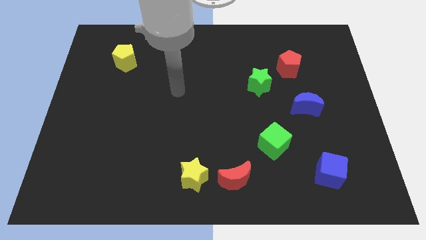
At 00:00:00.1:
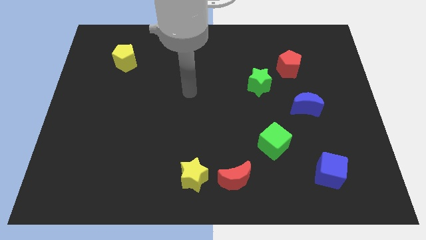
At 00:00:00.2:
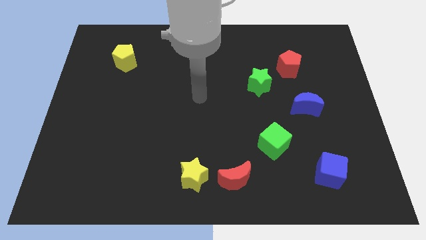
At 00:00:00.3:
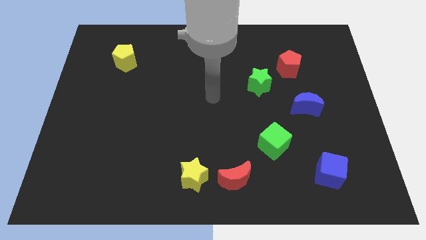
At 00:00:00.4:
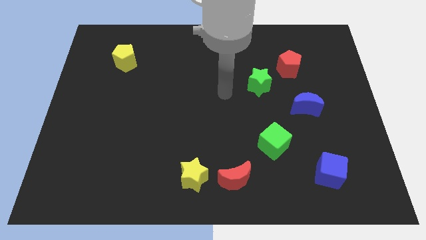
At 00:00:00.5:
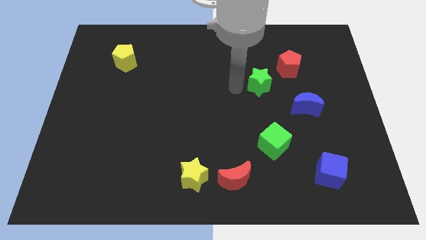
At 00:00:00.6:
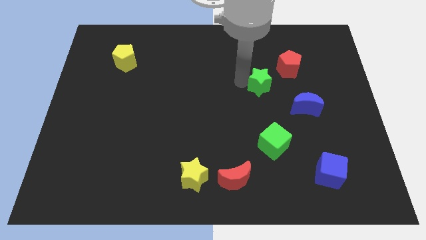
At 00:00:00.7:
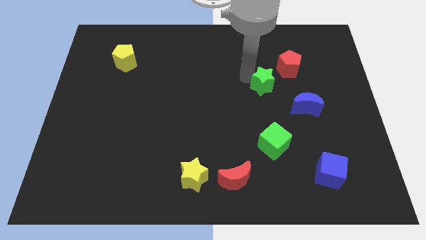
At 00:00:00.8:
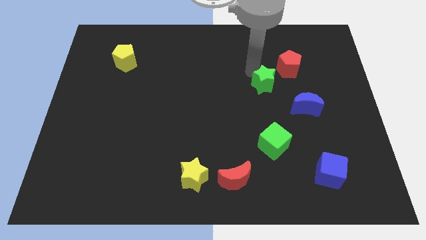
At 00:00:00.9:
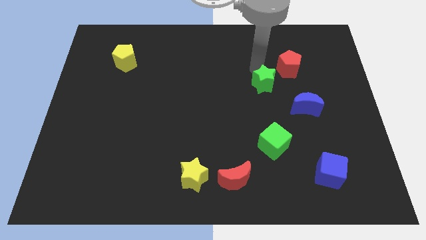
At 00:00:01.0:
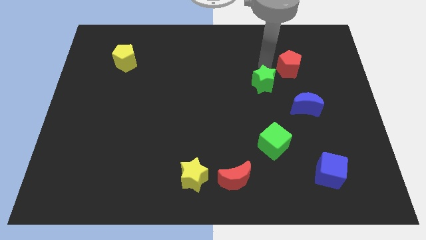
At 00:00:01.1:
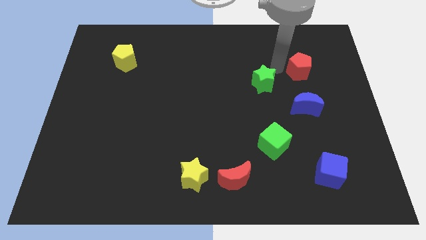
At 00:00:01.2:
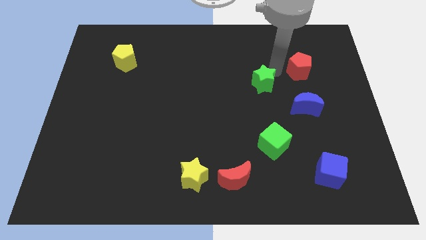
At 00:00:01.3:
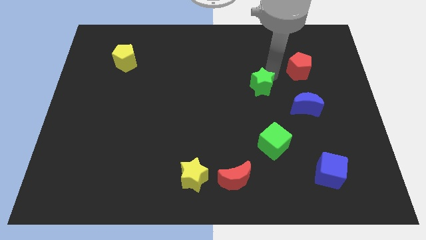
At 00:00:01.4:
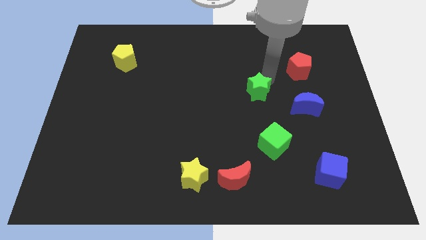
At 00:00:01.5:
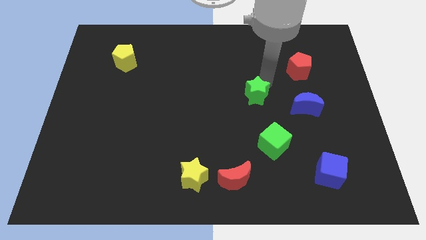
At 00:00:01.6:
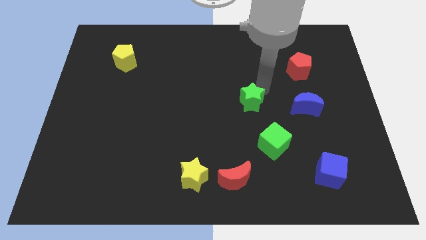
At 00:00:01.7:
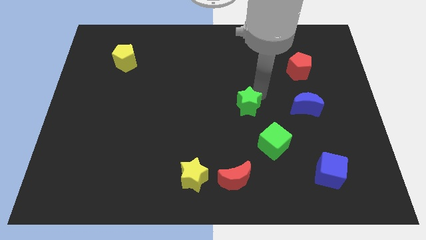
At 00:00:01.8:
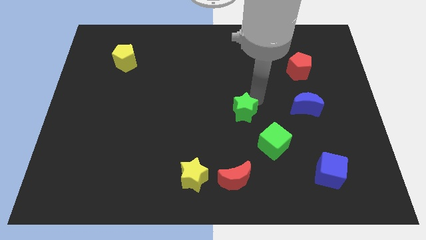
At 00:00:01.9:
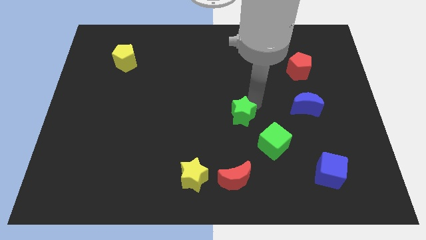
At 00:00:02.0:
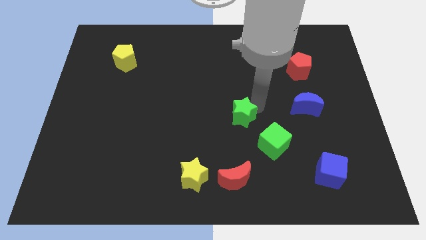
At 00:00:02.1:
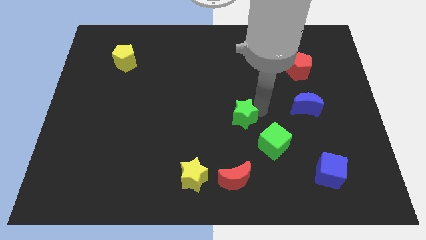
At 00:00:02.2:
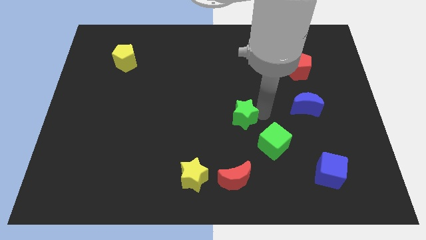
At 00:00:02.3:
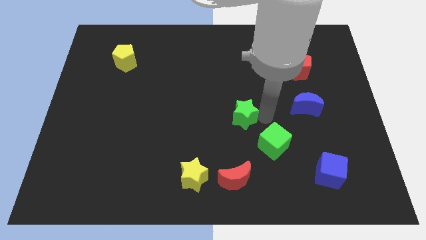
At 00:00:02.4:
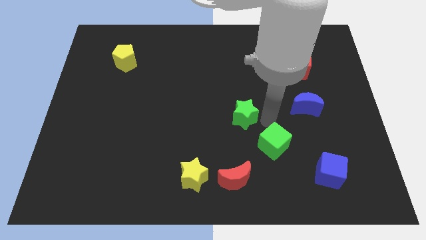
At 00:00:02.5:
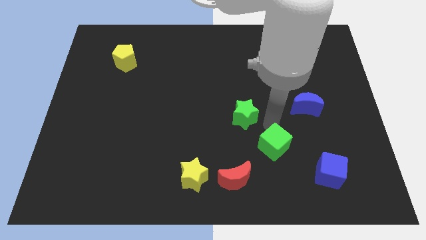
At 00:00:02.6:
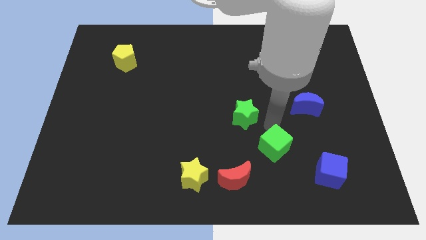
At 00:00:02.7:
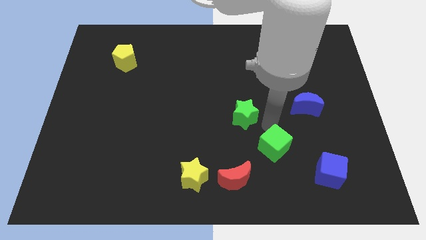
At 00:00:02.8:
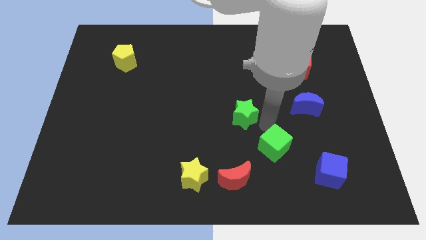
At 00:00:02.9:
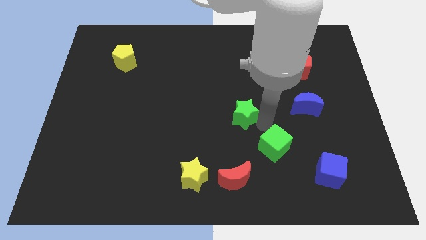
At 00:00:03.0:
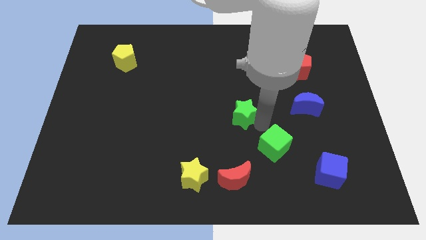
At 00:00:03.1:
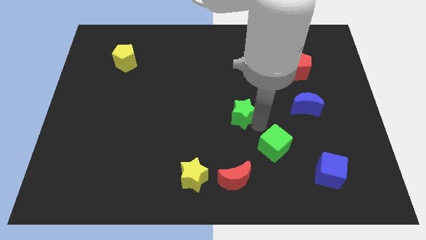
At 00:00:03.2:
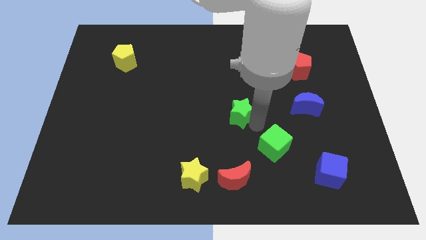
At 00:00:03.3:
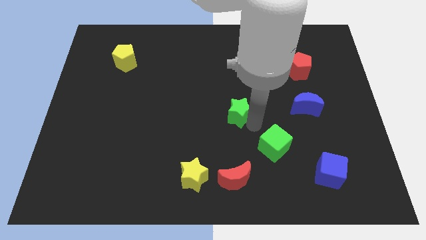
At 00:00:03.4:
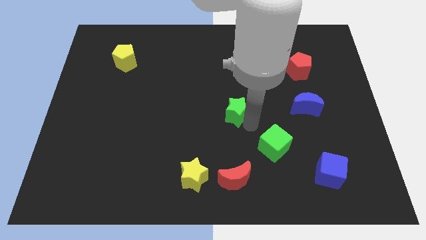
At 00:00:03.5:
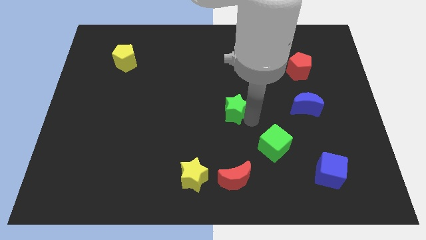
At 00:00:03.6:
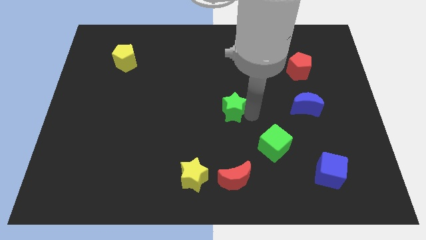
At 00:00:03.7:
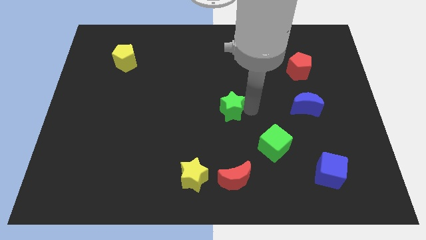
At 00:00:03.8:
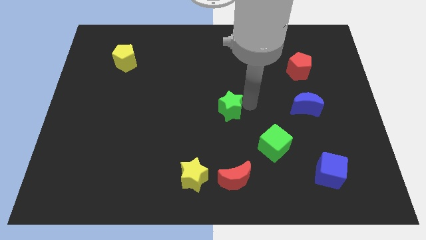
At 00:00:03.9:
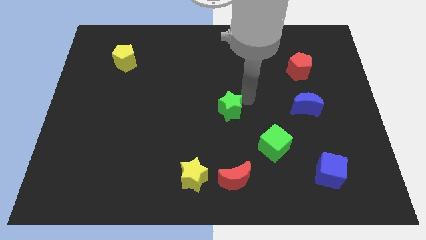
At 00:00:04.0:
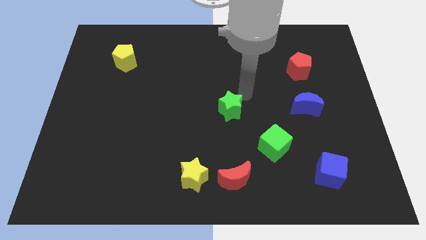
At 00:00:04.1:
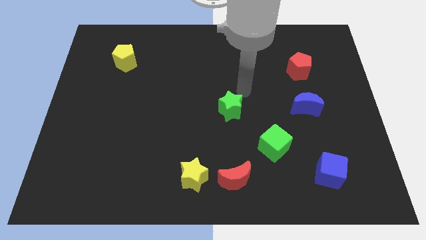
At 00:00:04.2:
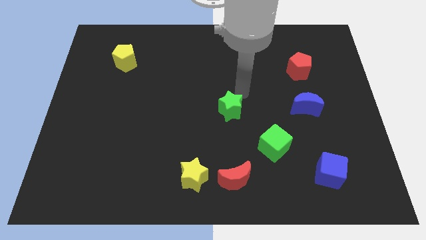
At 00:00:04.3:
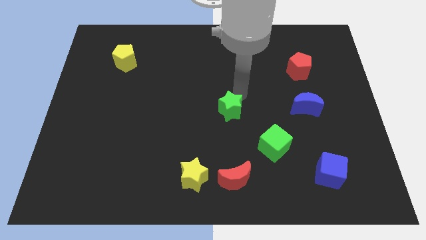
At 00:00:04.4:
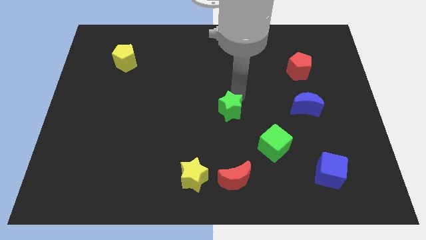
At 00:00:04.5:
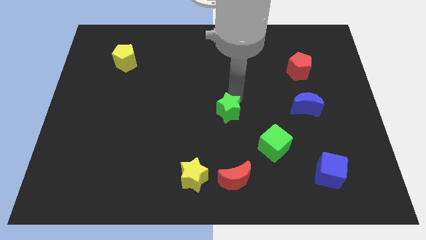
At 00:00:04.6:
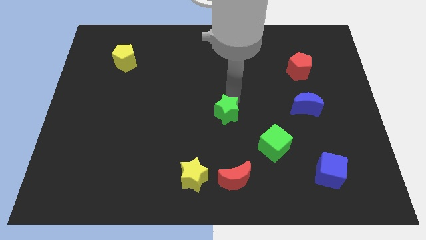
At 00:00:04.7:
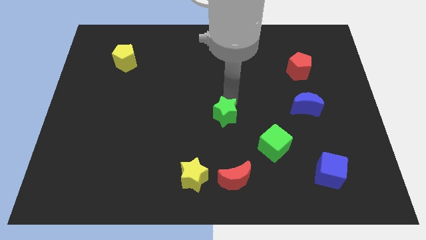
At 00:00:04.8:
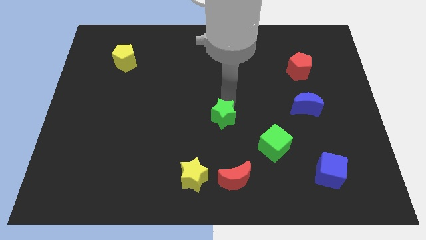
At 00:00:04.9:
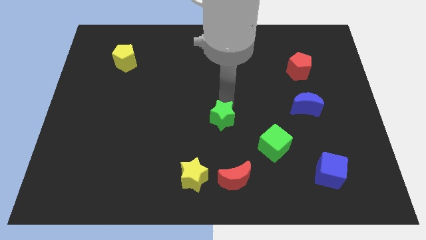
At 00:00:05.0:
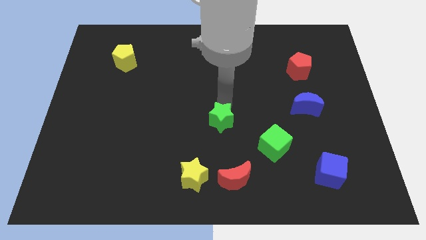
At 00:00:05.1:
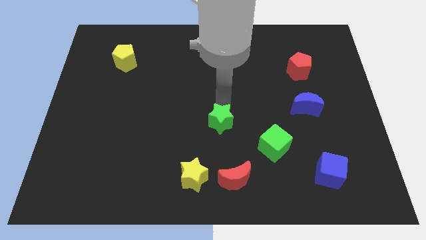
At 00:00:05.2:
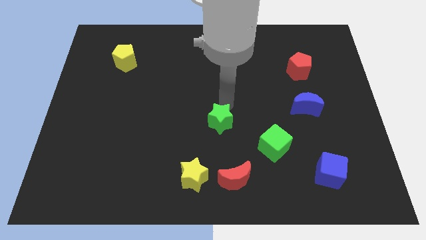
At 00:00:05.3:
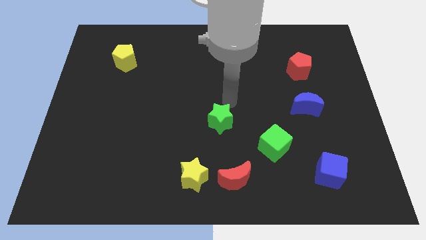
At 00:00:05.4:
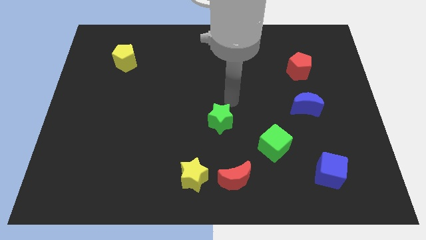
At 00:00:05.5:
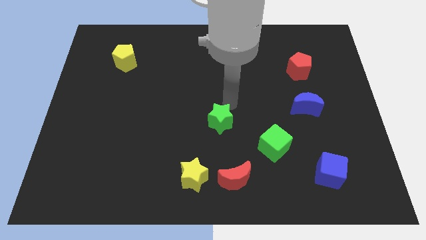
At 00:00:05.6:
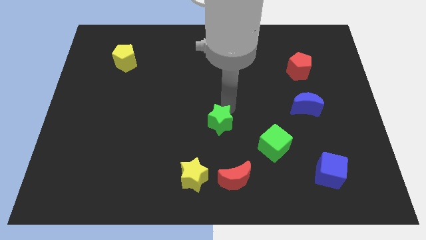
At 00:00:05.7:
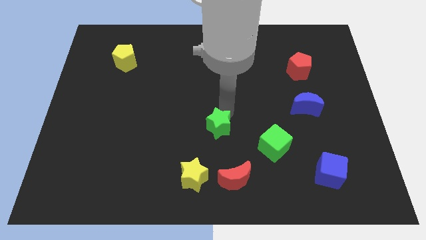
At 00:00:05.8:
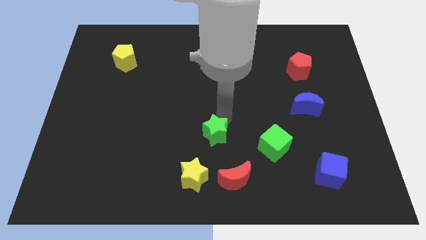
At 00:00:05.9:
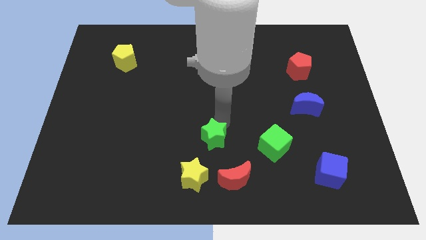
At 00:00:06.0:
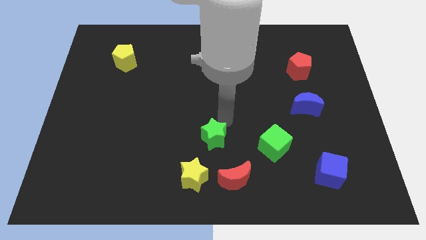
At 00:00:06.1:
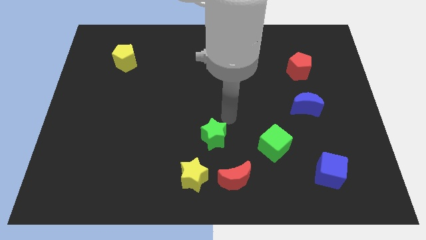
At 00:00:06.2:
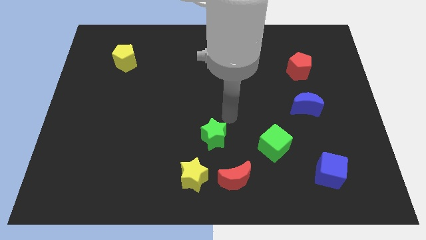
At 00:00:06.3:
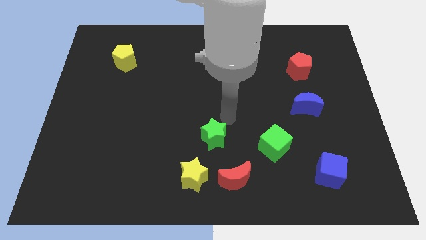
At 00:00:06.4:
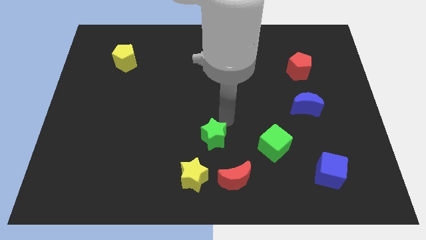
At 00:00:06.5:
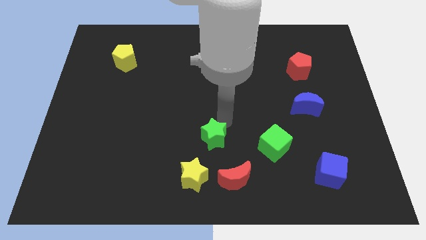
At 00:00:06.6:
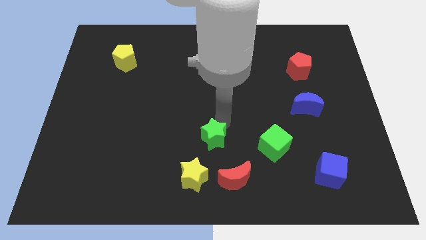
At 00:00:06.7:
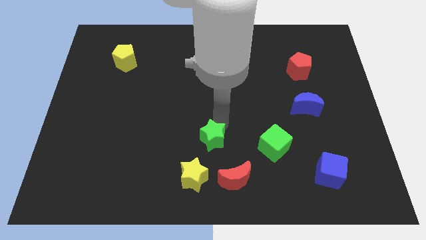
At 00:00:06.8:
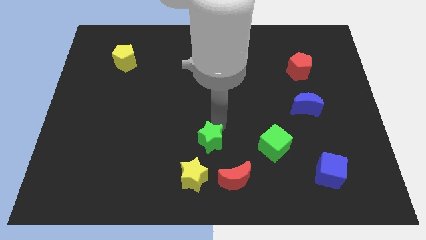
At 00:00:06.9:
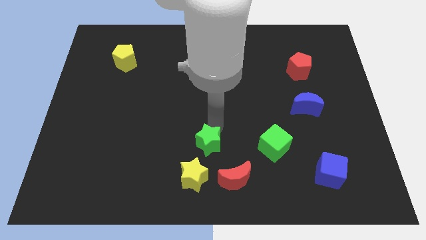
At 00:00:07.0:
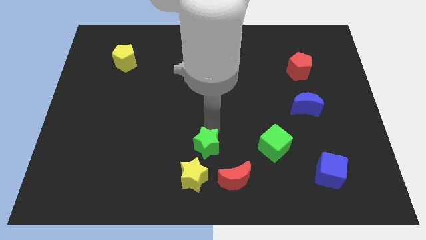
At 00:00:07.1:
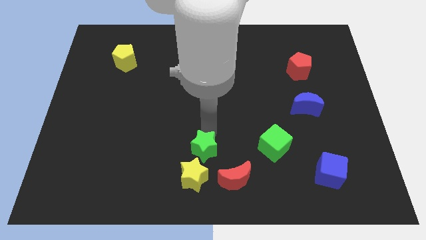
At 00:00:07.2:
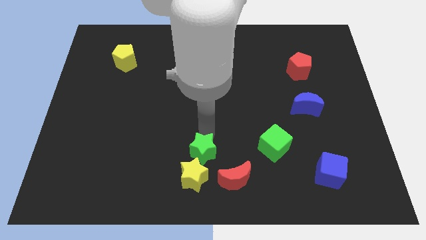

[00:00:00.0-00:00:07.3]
put the green star to the yellow star
